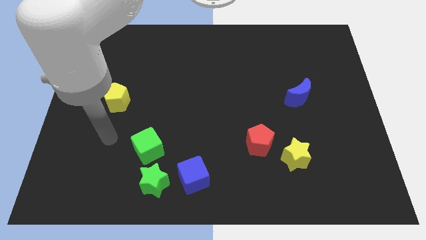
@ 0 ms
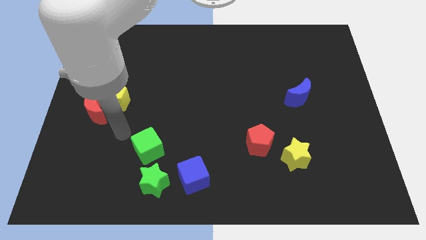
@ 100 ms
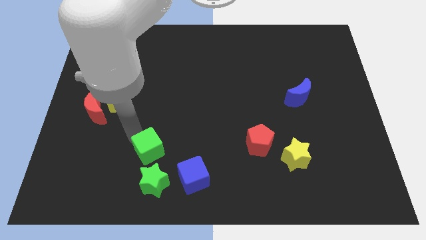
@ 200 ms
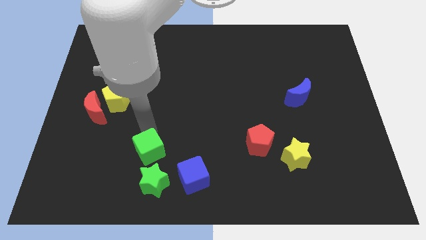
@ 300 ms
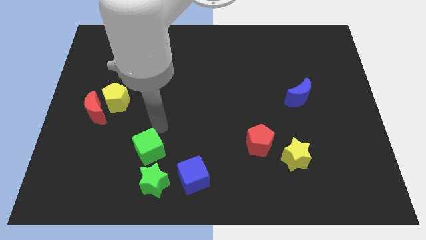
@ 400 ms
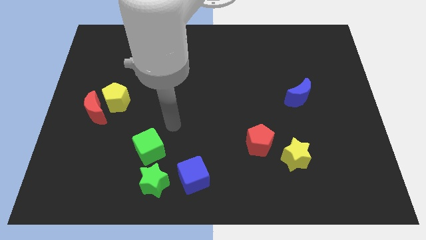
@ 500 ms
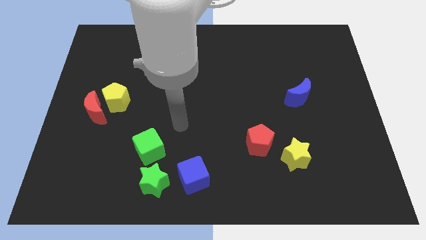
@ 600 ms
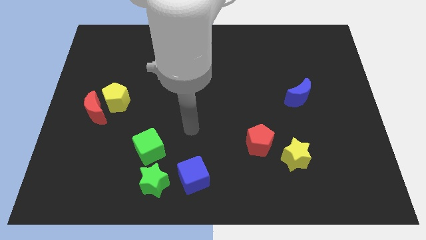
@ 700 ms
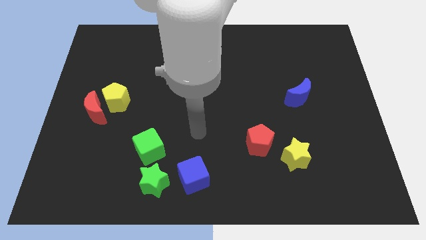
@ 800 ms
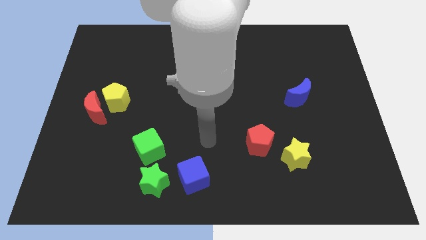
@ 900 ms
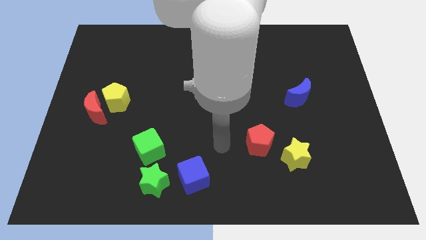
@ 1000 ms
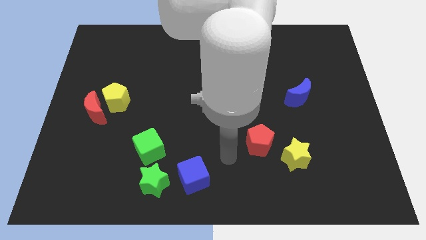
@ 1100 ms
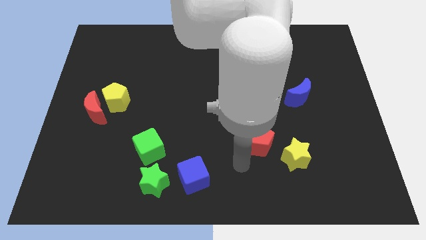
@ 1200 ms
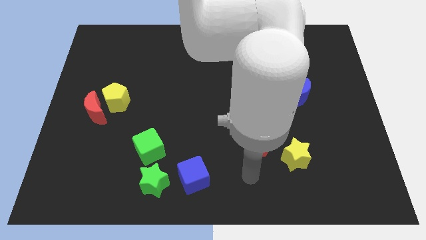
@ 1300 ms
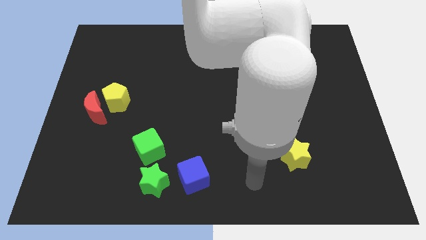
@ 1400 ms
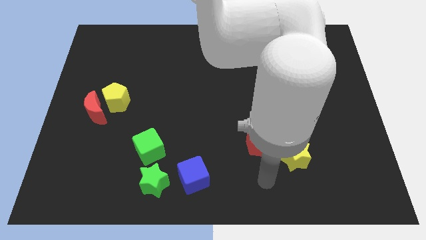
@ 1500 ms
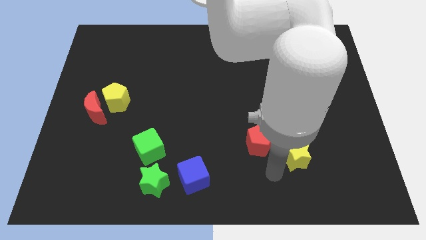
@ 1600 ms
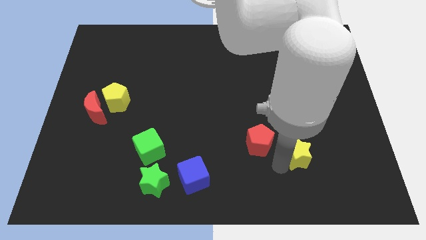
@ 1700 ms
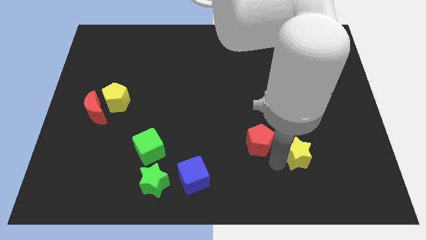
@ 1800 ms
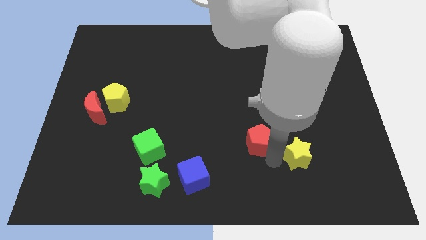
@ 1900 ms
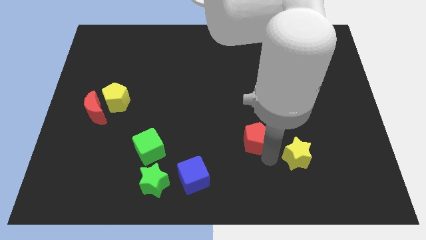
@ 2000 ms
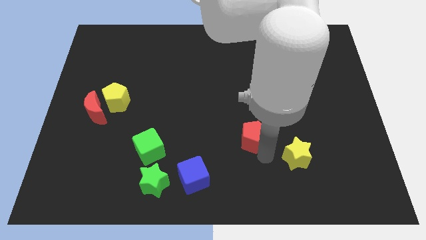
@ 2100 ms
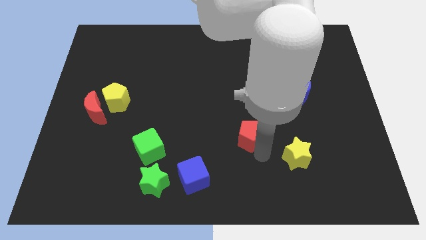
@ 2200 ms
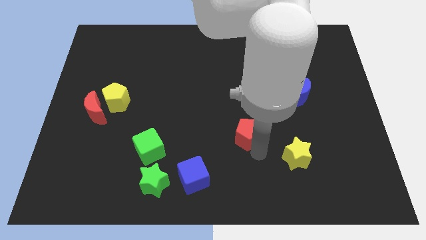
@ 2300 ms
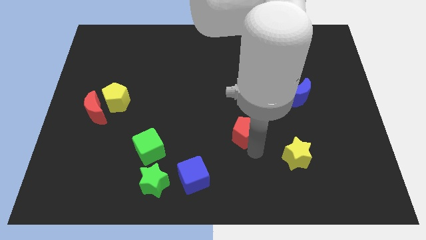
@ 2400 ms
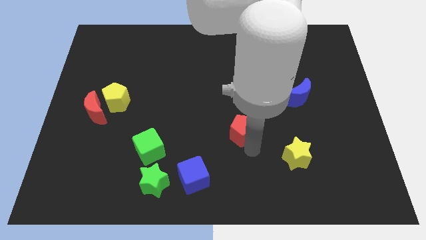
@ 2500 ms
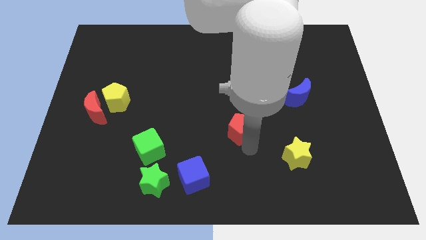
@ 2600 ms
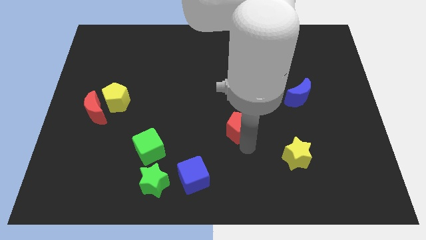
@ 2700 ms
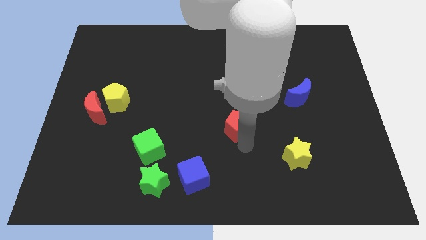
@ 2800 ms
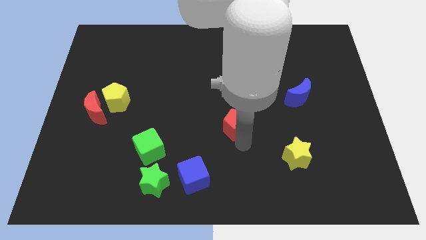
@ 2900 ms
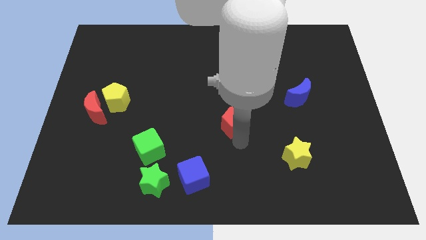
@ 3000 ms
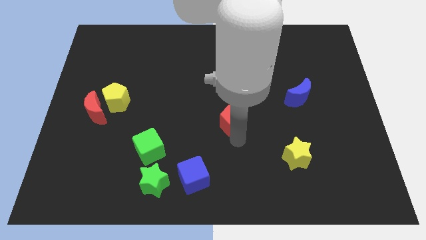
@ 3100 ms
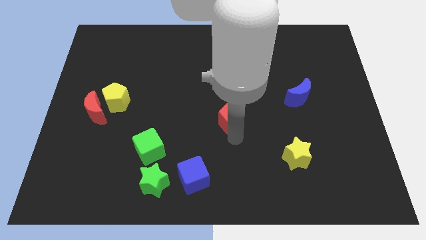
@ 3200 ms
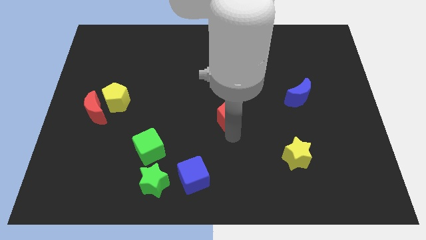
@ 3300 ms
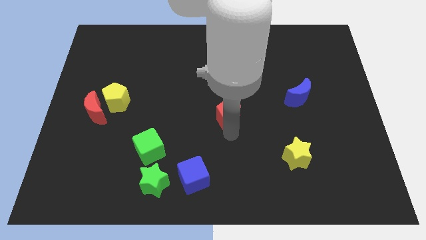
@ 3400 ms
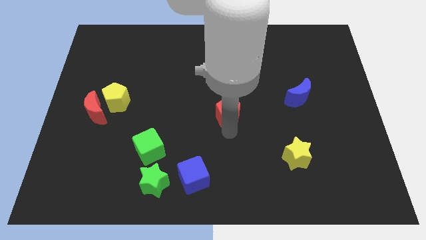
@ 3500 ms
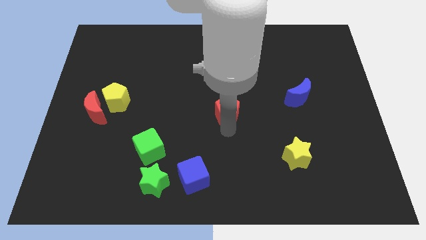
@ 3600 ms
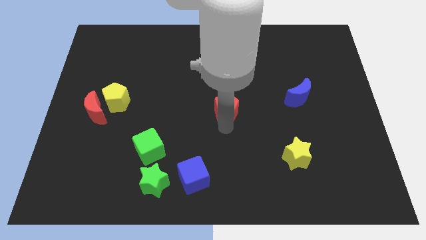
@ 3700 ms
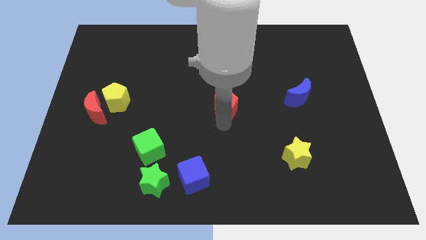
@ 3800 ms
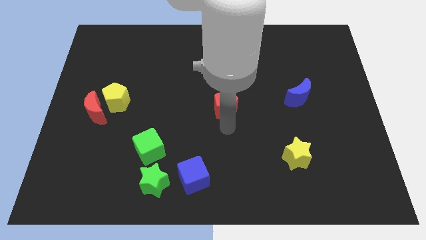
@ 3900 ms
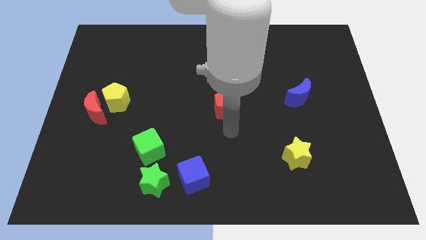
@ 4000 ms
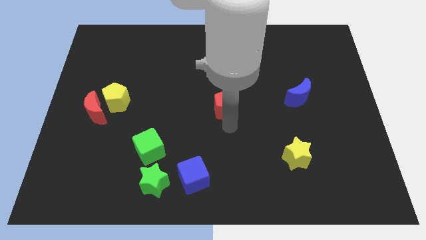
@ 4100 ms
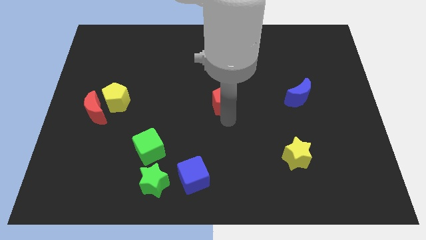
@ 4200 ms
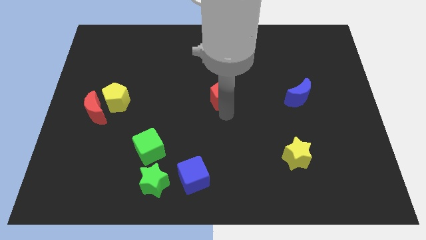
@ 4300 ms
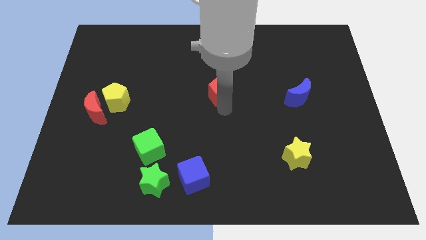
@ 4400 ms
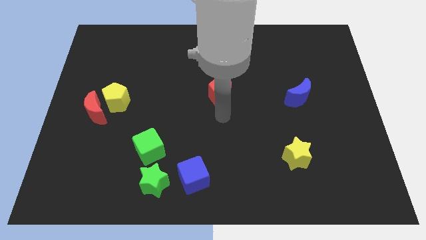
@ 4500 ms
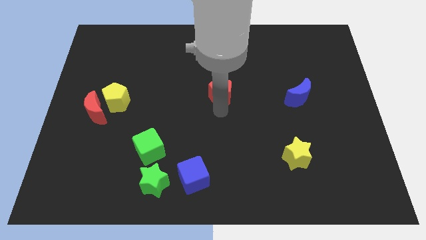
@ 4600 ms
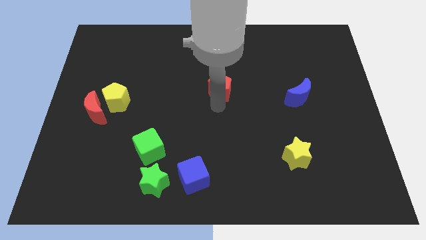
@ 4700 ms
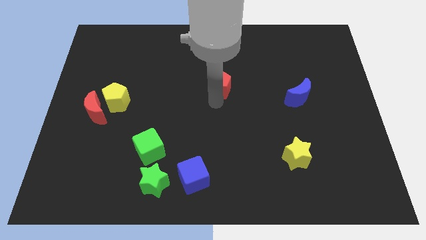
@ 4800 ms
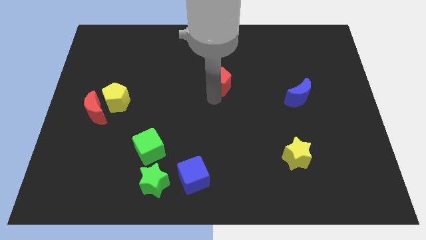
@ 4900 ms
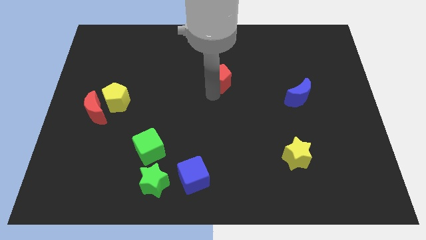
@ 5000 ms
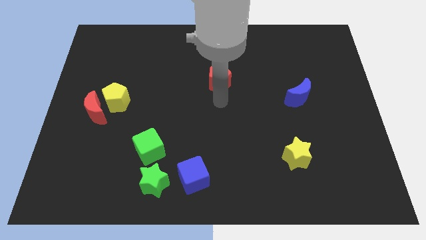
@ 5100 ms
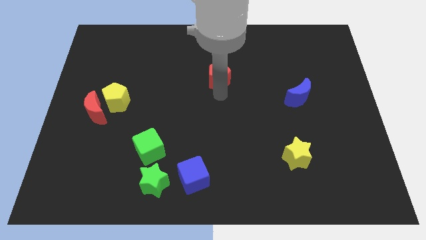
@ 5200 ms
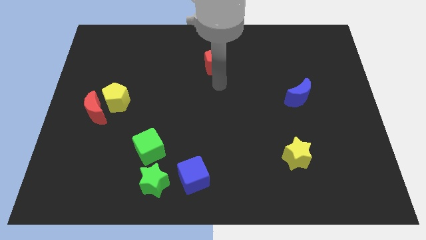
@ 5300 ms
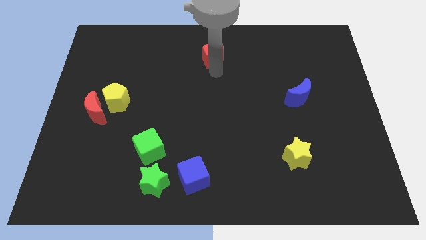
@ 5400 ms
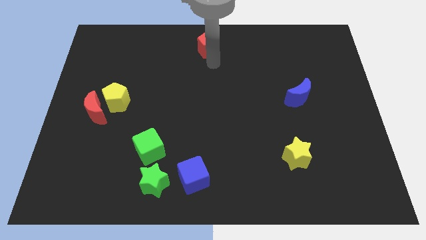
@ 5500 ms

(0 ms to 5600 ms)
push the red pentagon to the top side

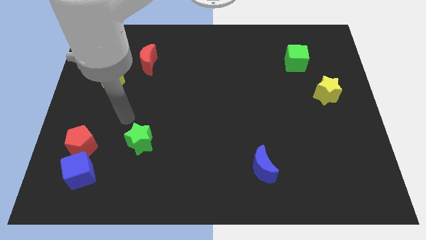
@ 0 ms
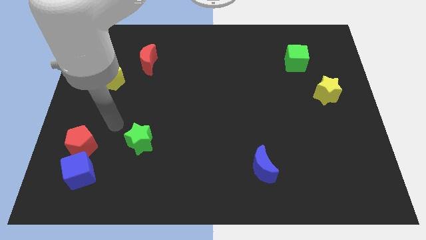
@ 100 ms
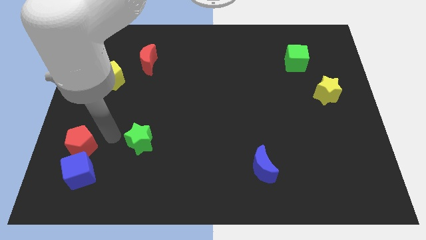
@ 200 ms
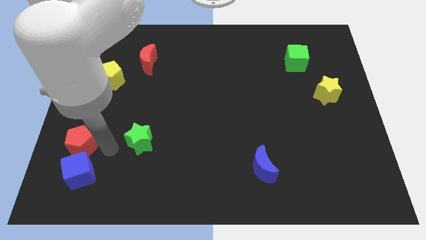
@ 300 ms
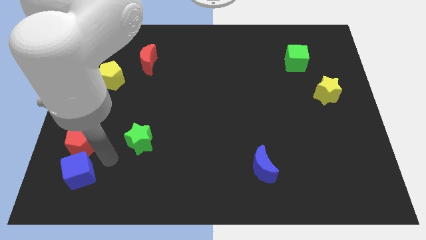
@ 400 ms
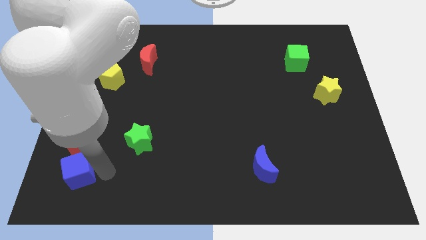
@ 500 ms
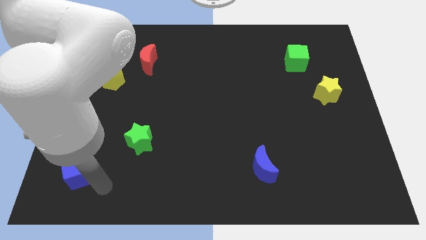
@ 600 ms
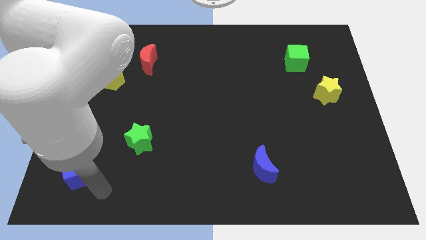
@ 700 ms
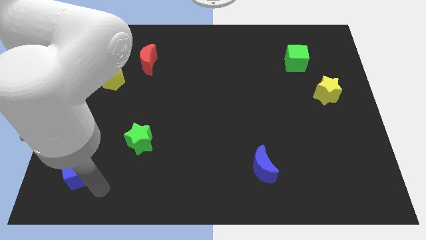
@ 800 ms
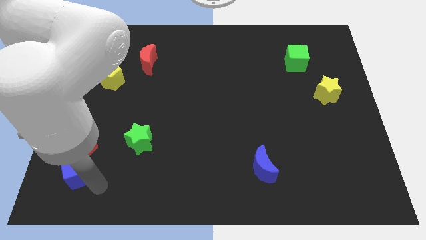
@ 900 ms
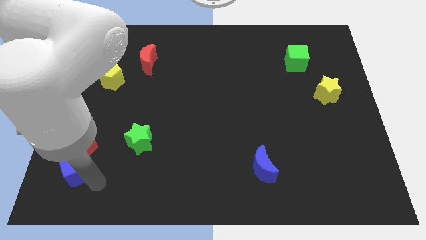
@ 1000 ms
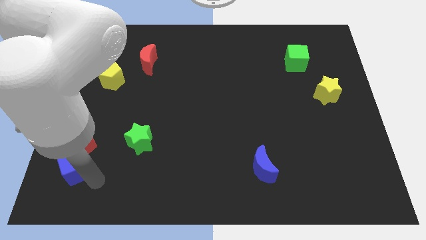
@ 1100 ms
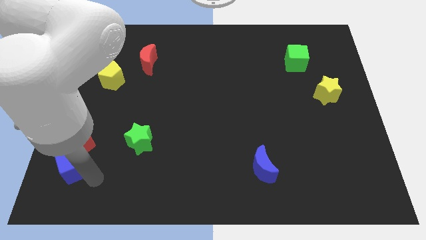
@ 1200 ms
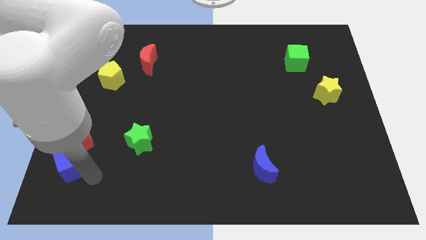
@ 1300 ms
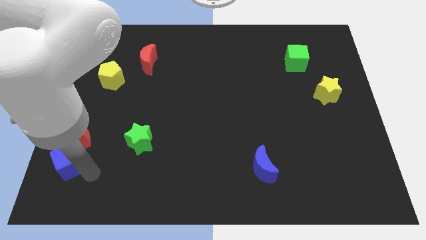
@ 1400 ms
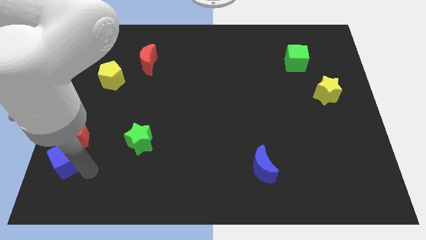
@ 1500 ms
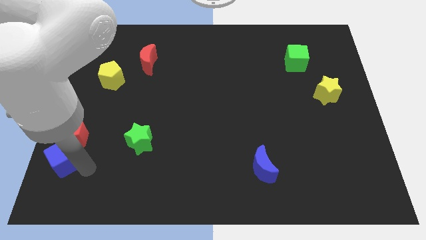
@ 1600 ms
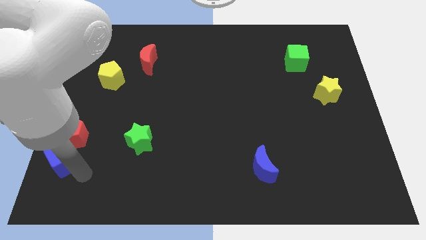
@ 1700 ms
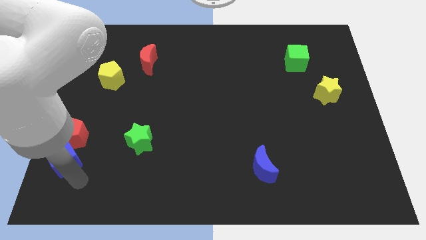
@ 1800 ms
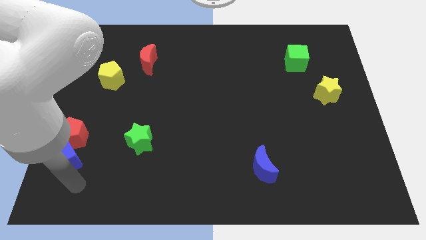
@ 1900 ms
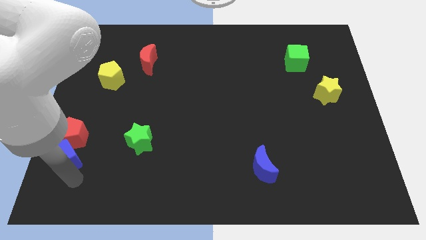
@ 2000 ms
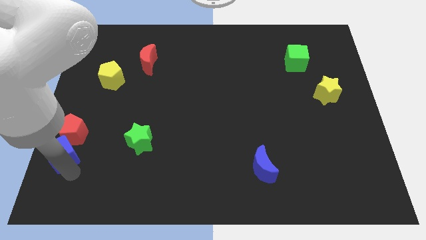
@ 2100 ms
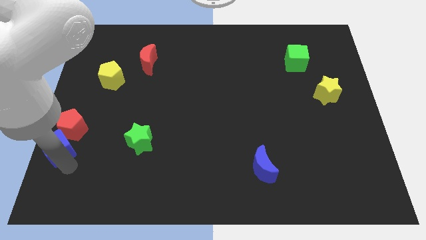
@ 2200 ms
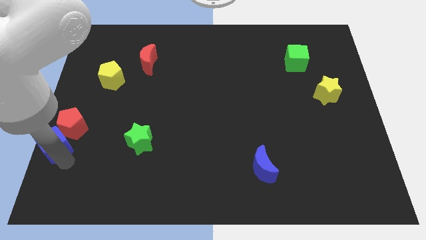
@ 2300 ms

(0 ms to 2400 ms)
push the blue cube to the center left
